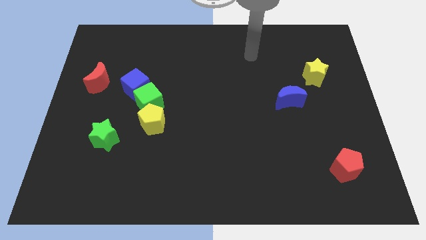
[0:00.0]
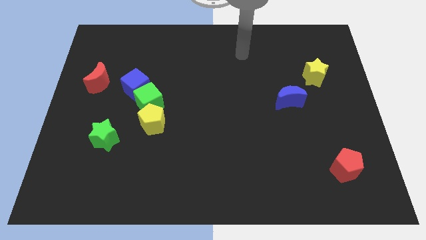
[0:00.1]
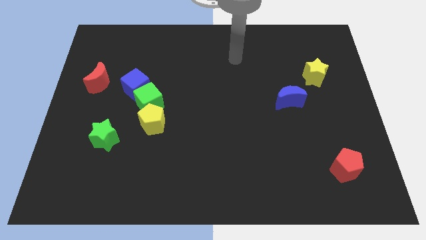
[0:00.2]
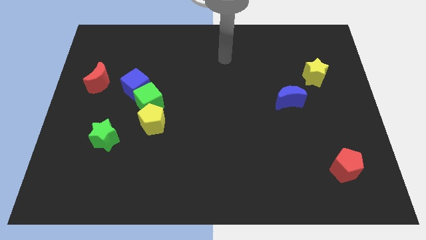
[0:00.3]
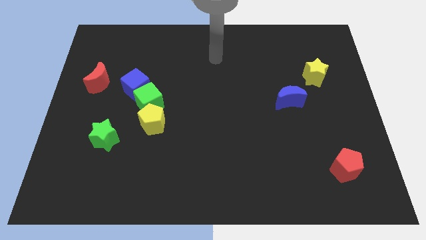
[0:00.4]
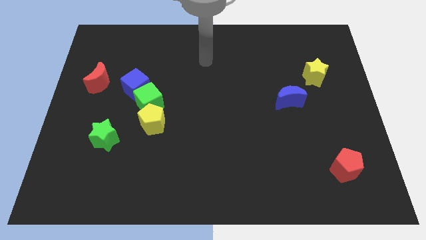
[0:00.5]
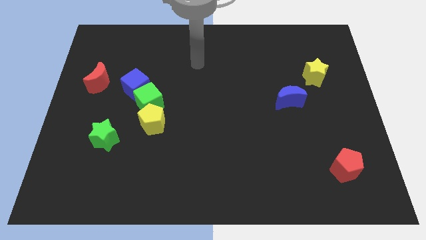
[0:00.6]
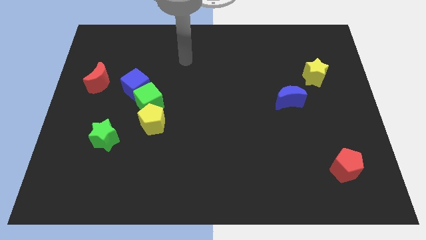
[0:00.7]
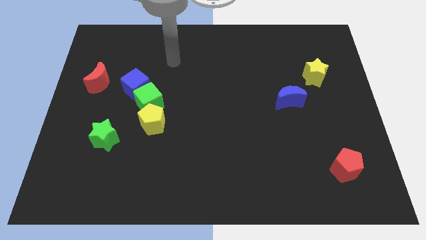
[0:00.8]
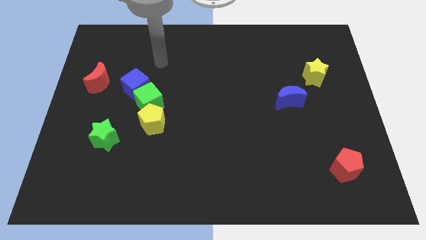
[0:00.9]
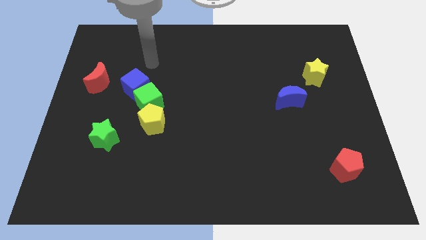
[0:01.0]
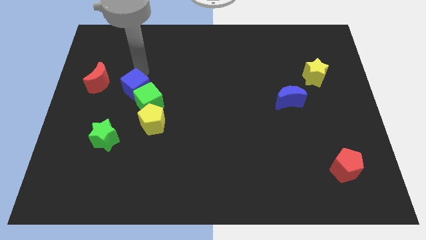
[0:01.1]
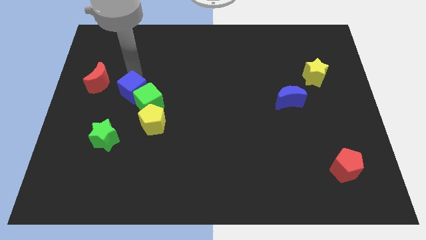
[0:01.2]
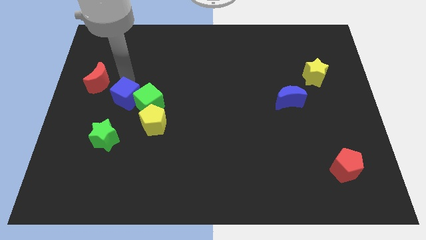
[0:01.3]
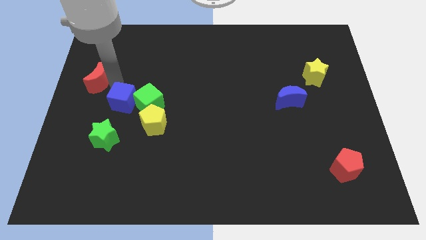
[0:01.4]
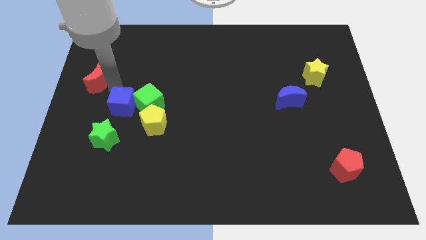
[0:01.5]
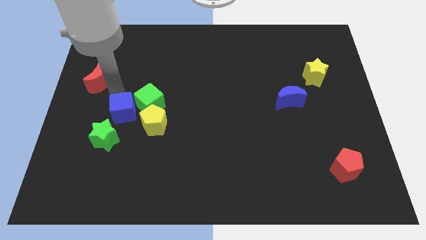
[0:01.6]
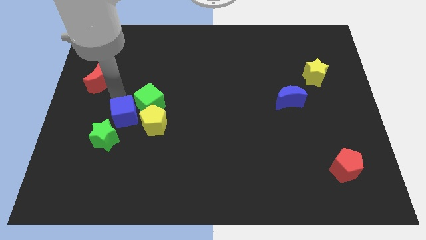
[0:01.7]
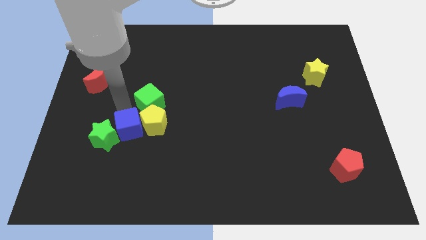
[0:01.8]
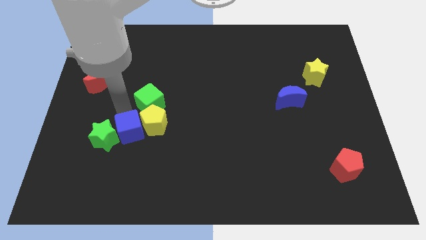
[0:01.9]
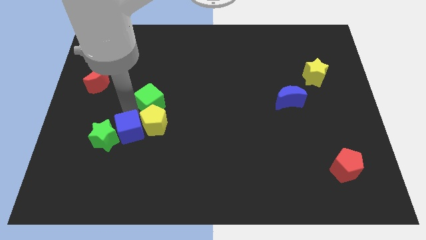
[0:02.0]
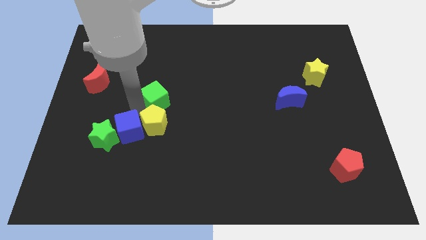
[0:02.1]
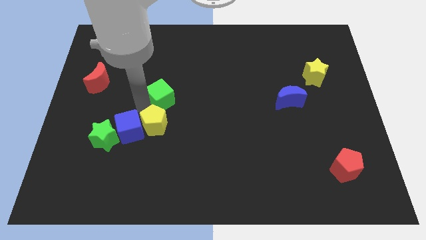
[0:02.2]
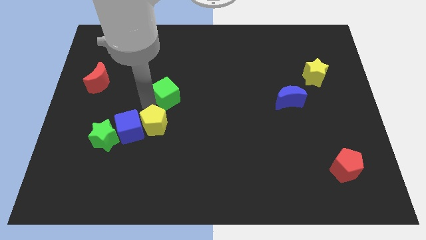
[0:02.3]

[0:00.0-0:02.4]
move the green cube away from the blue cube and yellow pentagon

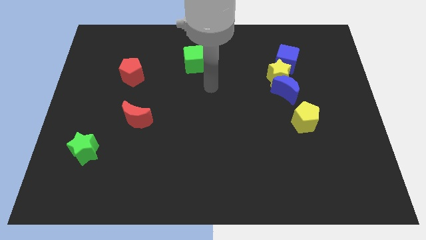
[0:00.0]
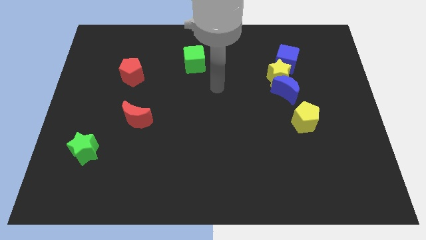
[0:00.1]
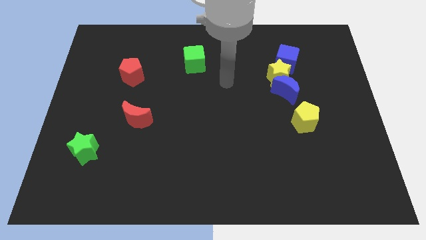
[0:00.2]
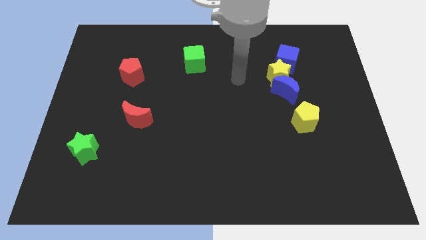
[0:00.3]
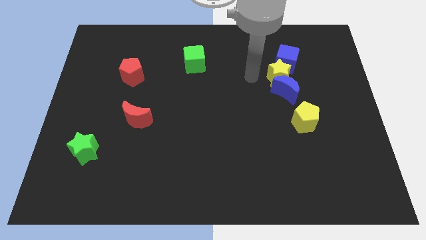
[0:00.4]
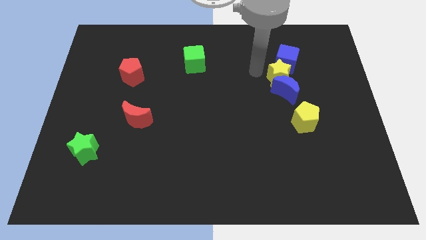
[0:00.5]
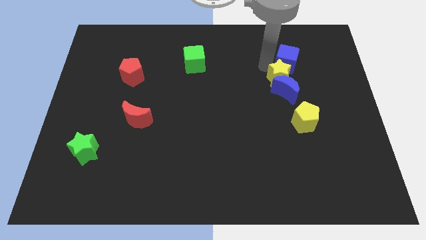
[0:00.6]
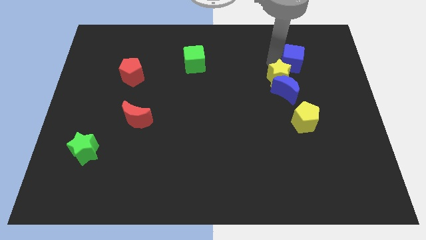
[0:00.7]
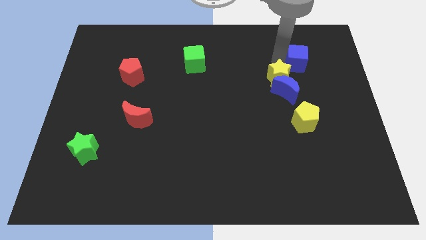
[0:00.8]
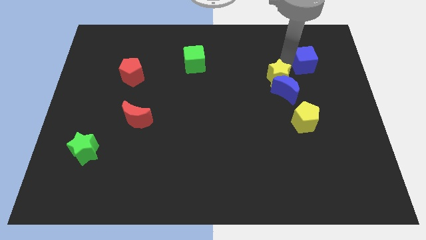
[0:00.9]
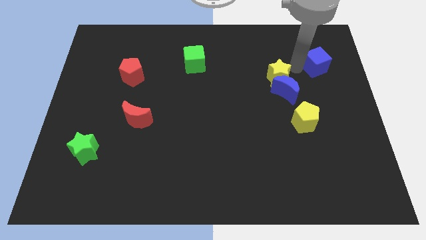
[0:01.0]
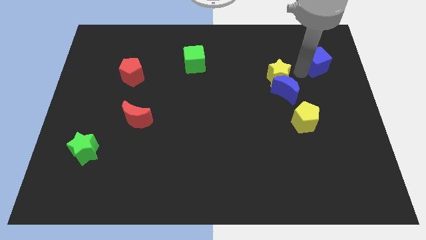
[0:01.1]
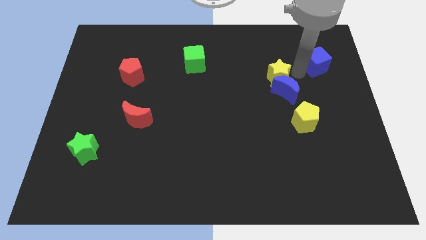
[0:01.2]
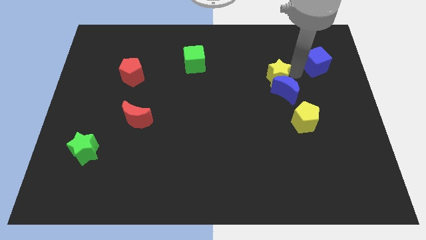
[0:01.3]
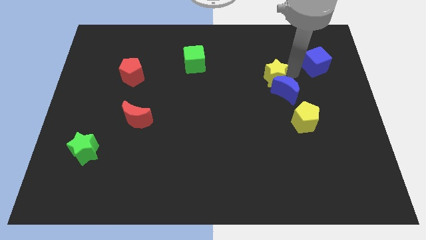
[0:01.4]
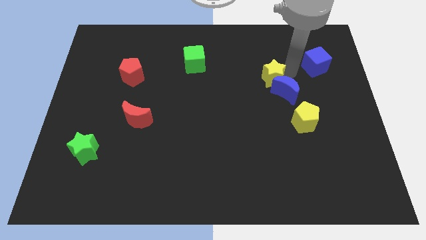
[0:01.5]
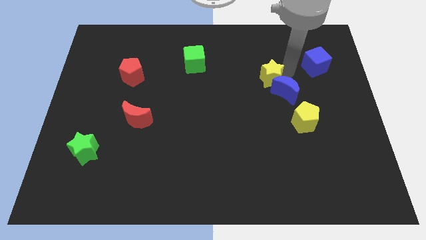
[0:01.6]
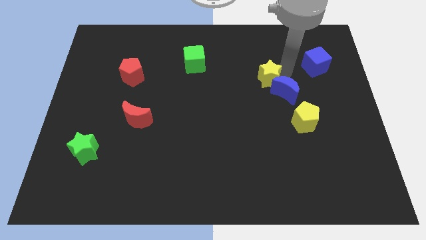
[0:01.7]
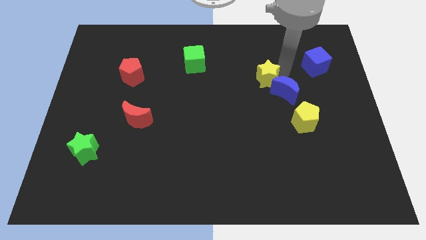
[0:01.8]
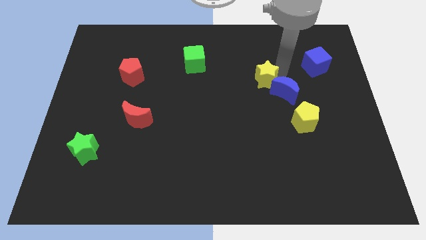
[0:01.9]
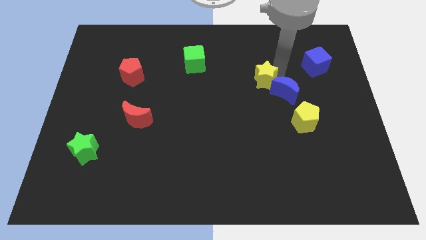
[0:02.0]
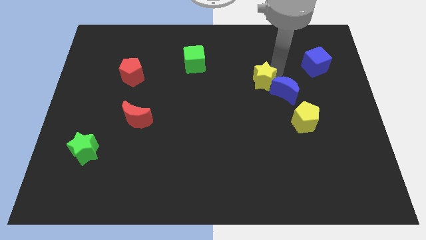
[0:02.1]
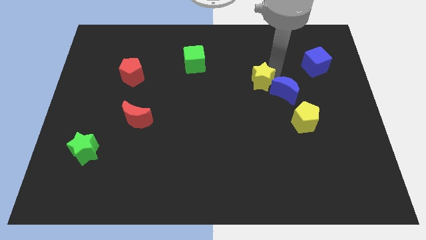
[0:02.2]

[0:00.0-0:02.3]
pull the yellow star apart from the blue moon and blue cube

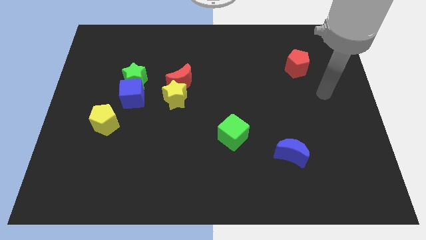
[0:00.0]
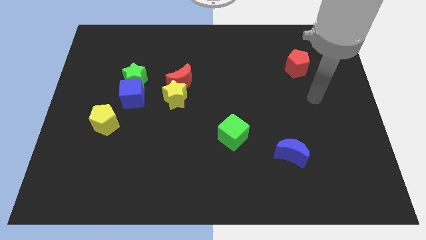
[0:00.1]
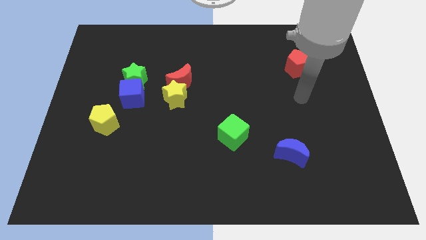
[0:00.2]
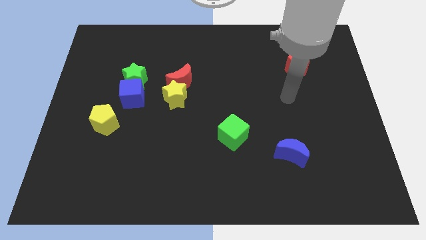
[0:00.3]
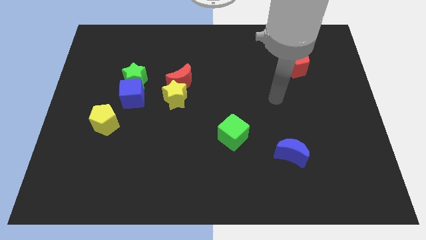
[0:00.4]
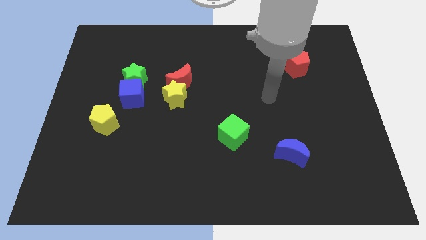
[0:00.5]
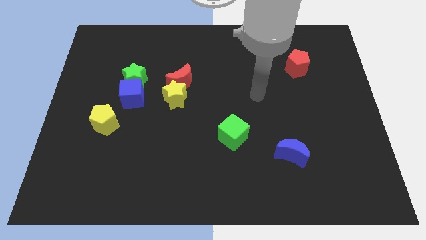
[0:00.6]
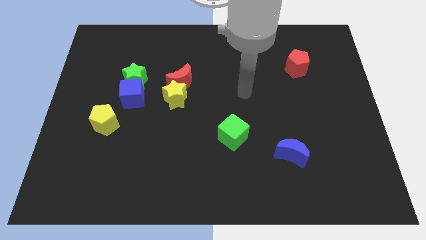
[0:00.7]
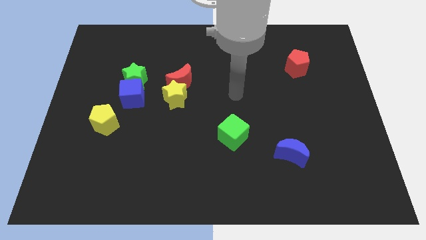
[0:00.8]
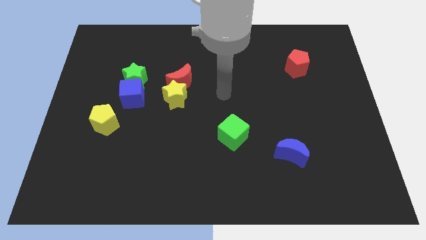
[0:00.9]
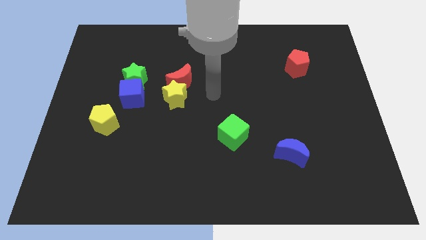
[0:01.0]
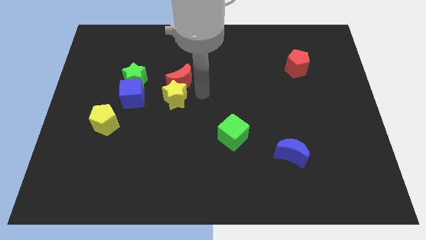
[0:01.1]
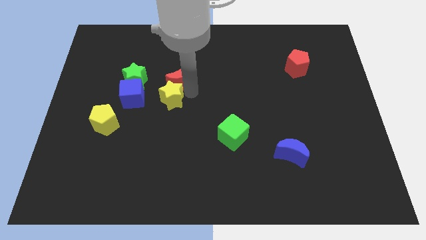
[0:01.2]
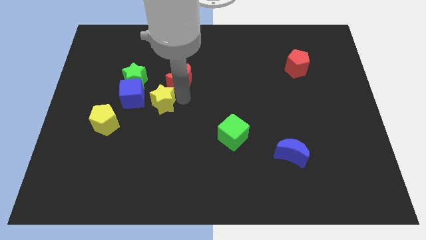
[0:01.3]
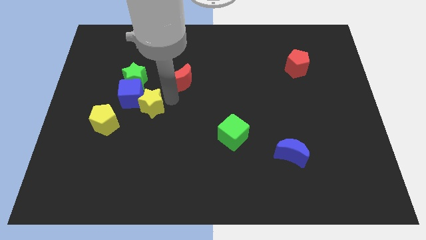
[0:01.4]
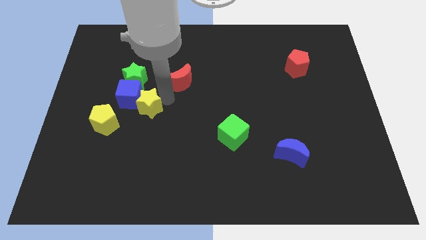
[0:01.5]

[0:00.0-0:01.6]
separate the red moon from the yellow star

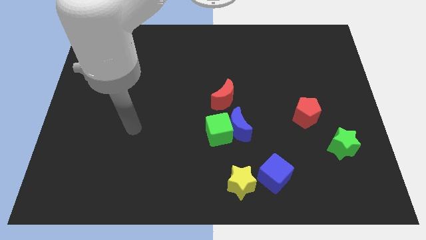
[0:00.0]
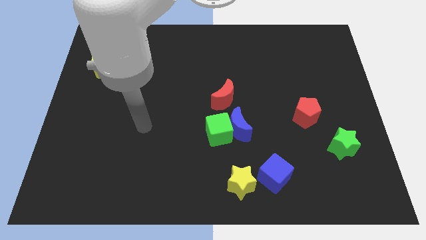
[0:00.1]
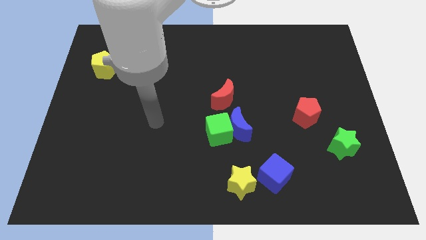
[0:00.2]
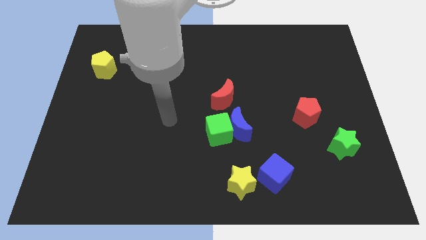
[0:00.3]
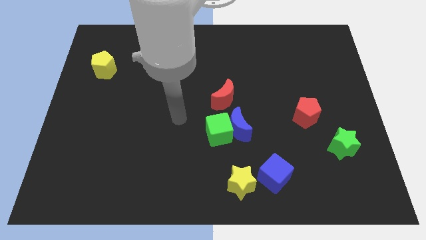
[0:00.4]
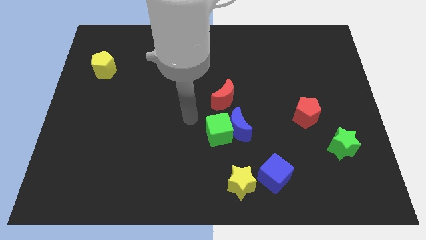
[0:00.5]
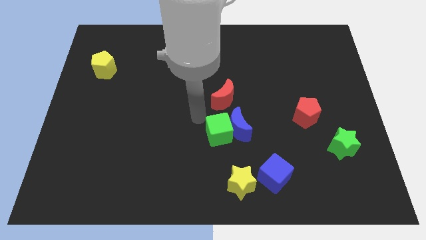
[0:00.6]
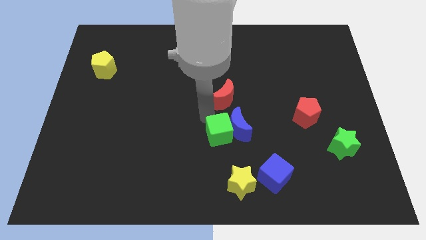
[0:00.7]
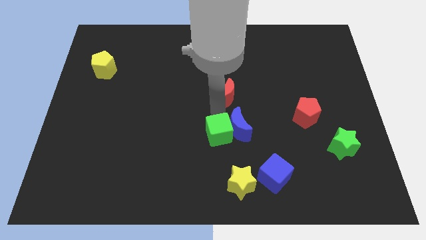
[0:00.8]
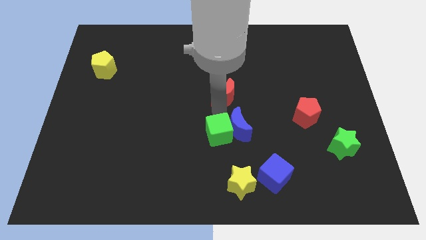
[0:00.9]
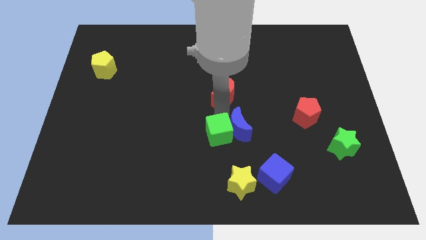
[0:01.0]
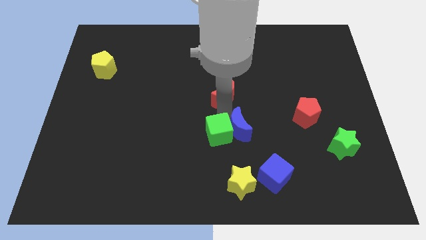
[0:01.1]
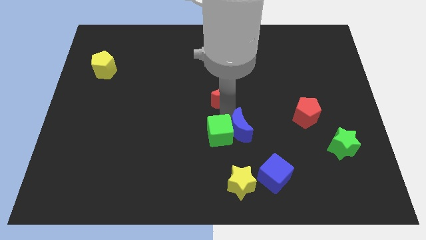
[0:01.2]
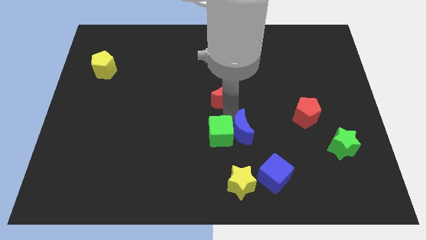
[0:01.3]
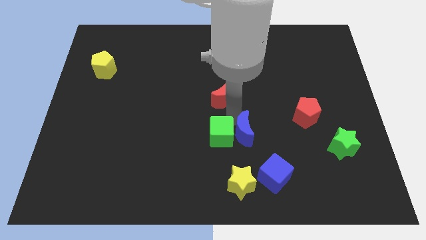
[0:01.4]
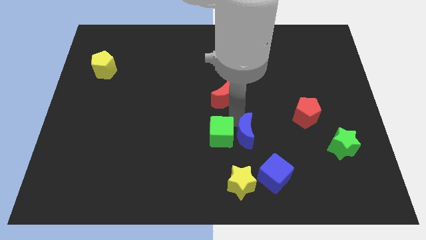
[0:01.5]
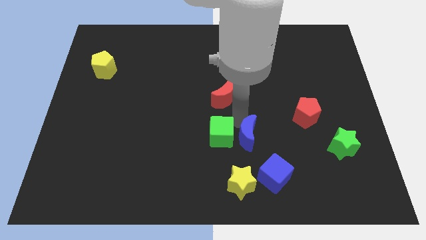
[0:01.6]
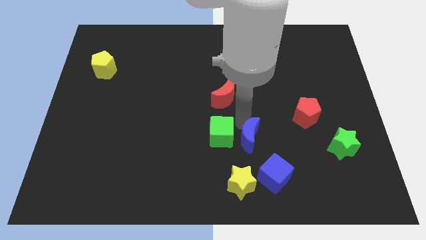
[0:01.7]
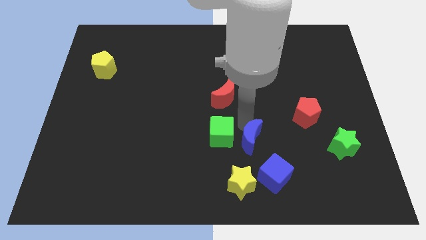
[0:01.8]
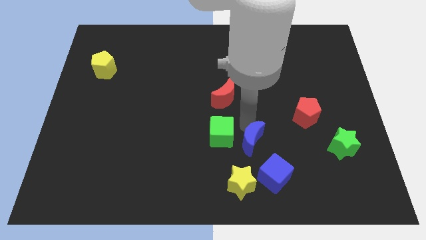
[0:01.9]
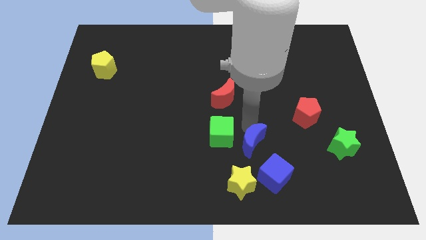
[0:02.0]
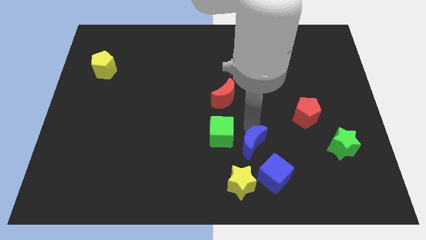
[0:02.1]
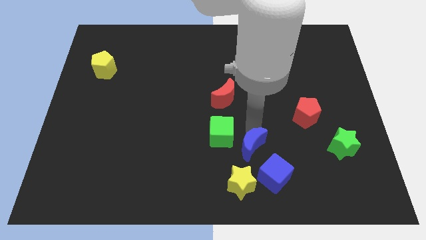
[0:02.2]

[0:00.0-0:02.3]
separate the blue moon from the green cube and red moon

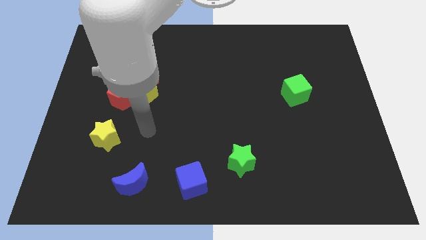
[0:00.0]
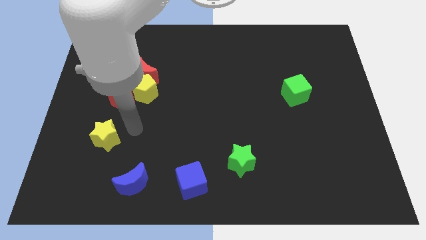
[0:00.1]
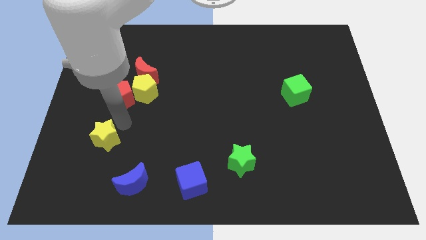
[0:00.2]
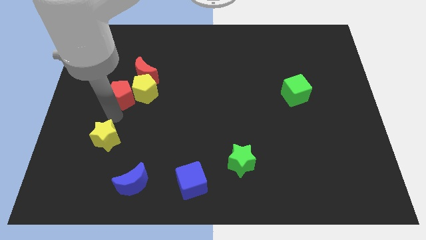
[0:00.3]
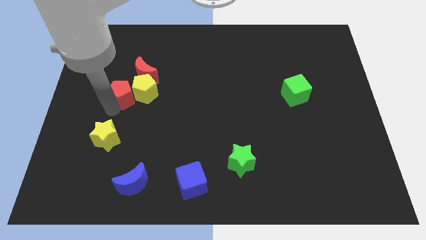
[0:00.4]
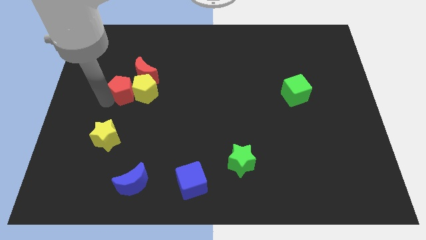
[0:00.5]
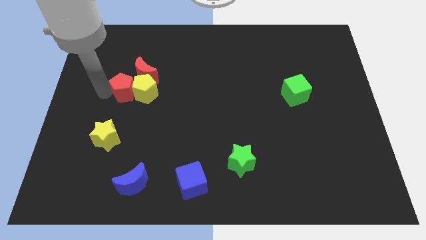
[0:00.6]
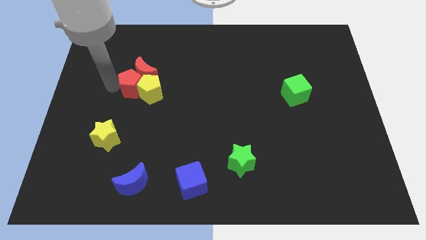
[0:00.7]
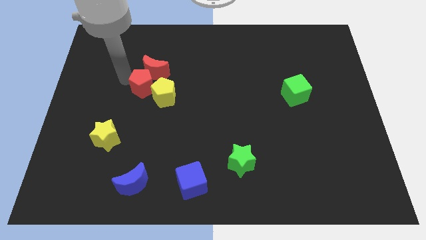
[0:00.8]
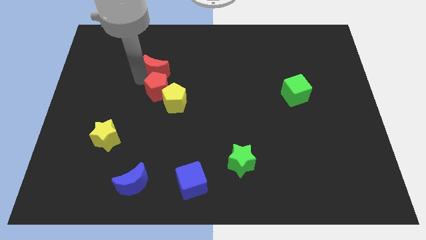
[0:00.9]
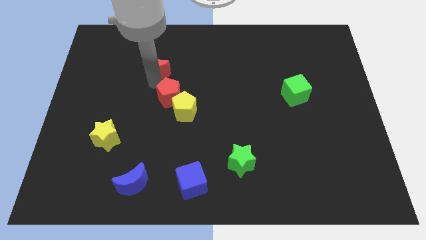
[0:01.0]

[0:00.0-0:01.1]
separate the yellow pentagon from the red pentagon and red moon
